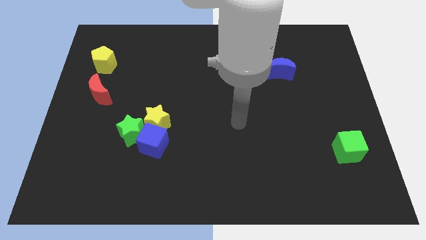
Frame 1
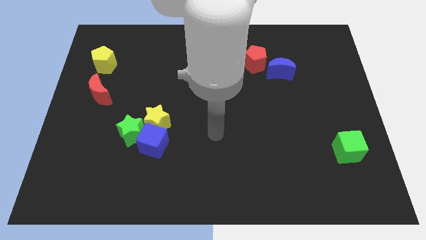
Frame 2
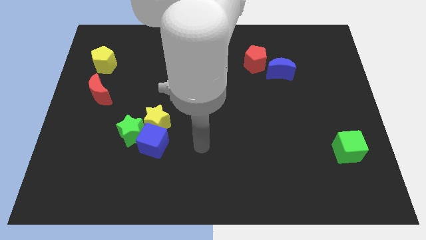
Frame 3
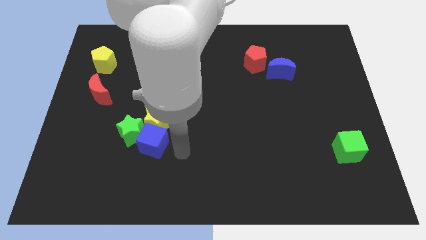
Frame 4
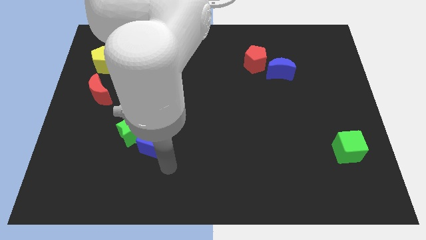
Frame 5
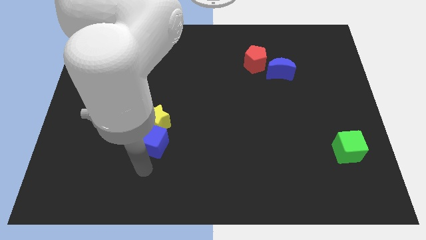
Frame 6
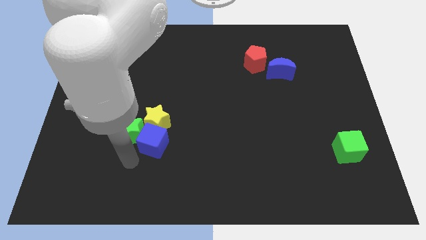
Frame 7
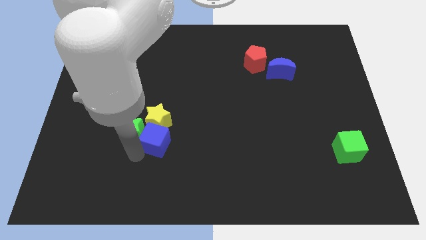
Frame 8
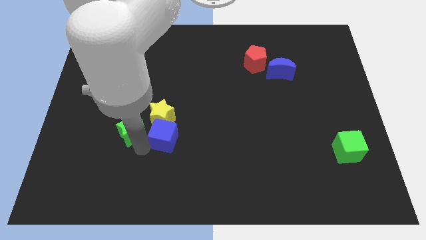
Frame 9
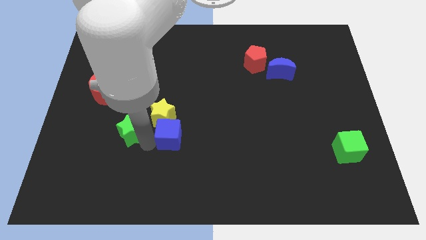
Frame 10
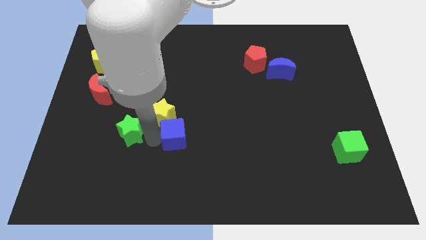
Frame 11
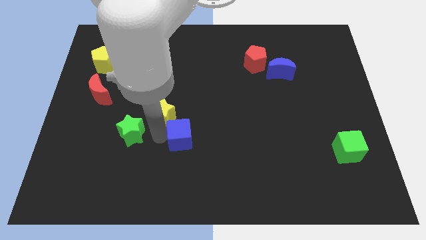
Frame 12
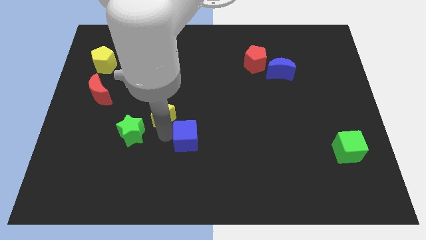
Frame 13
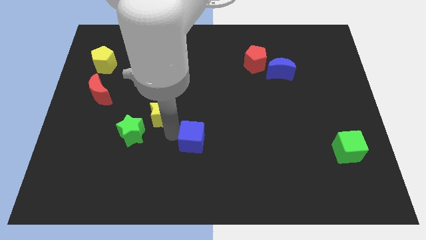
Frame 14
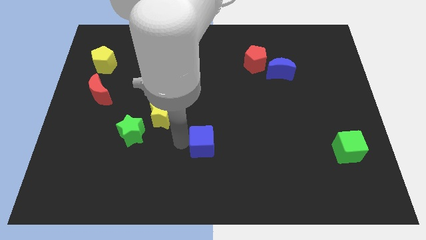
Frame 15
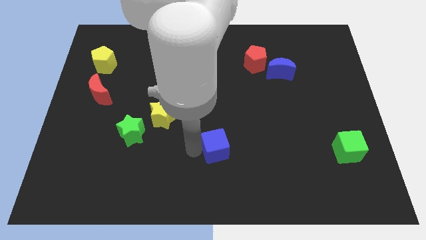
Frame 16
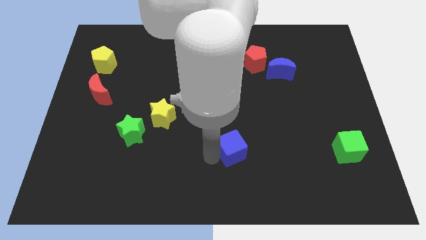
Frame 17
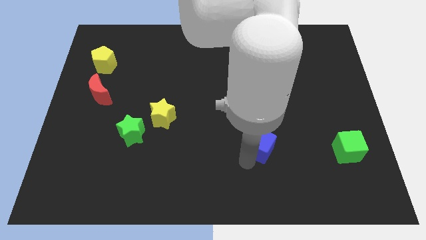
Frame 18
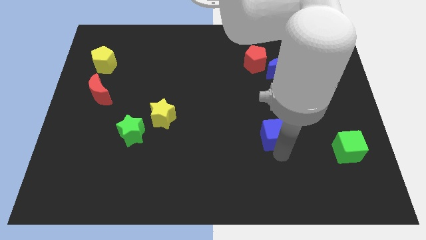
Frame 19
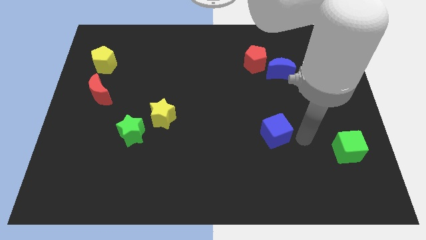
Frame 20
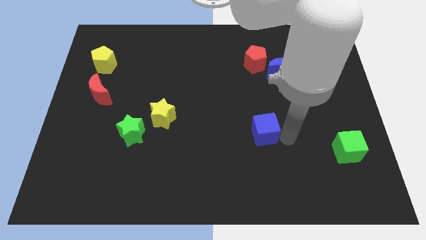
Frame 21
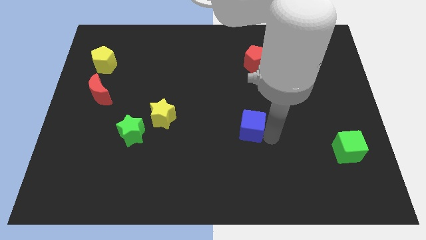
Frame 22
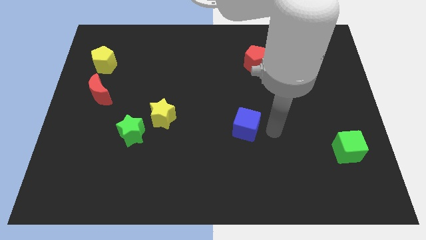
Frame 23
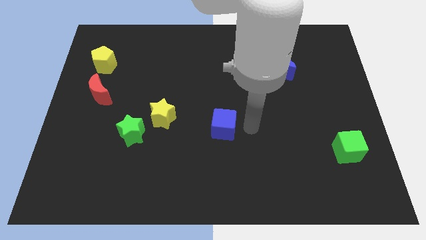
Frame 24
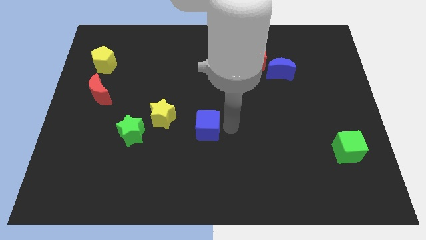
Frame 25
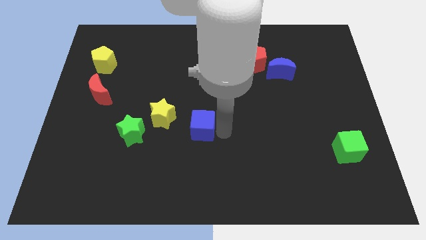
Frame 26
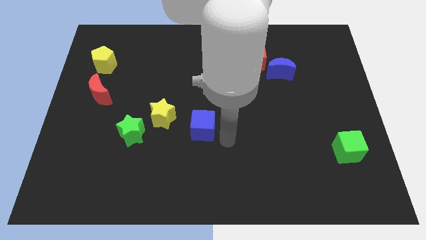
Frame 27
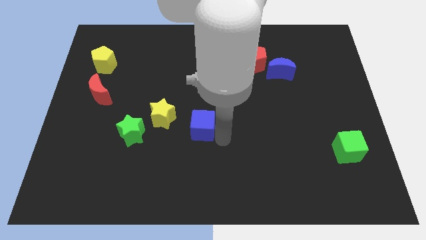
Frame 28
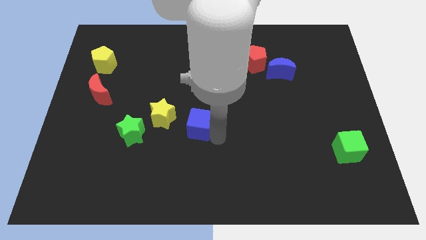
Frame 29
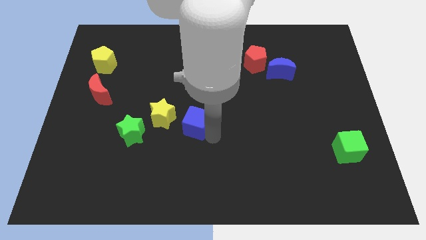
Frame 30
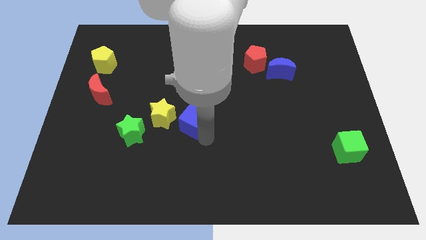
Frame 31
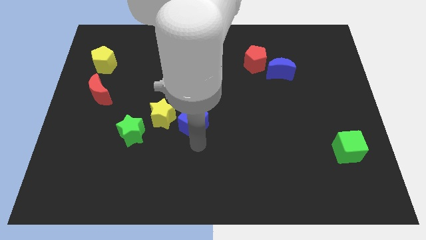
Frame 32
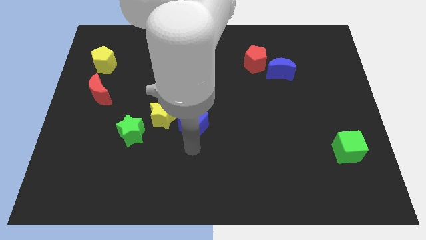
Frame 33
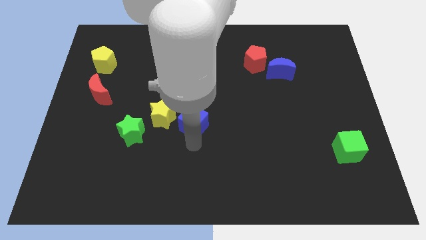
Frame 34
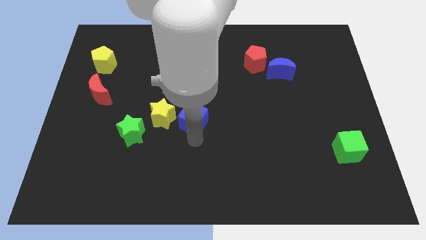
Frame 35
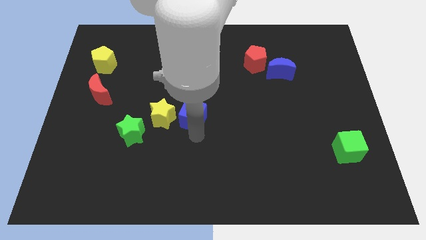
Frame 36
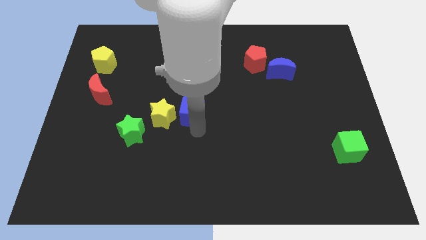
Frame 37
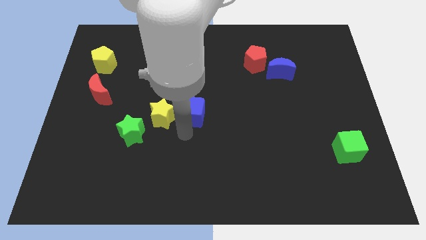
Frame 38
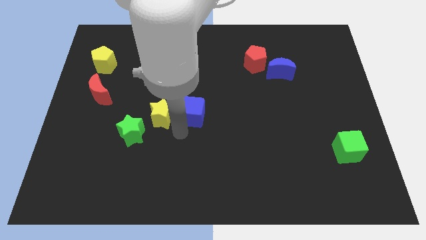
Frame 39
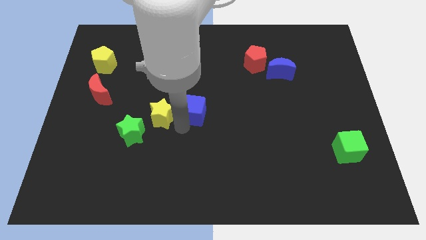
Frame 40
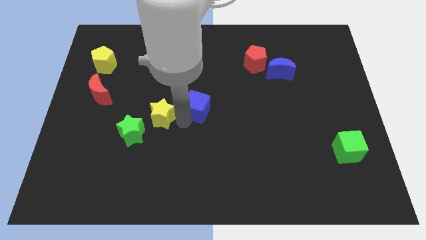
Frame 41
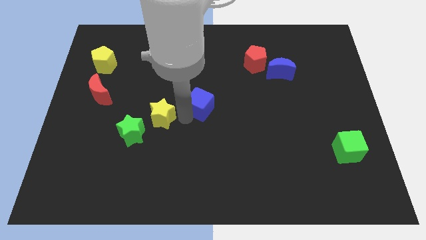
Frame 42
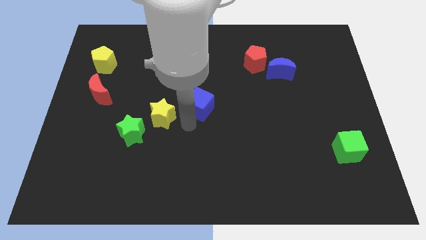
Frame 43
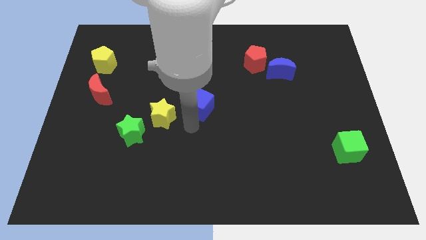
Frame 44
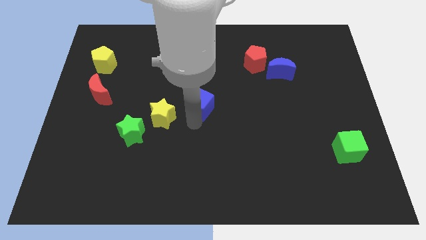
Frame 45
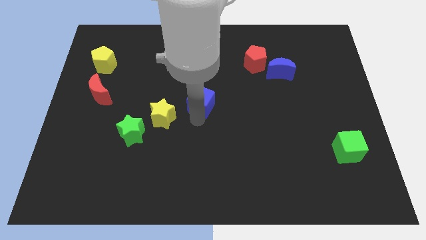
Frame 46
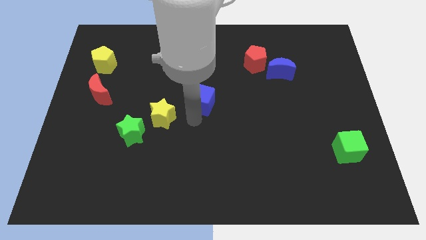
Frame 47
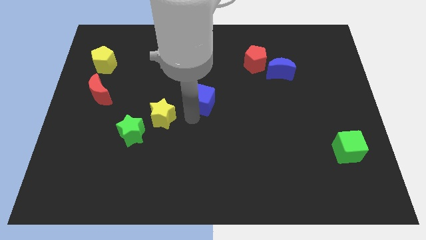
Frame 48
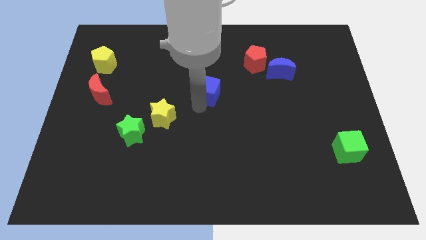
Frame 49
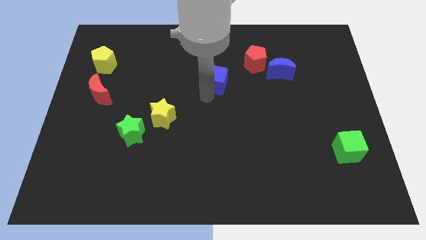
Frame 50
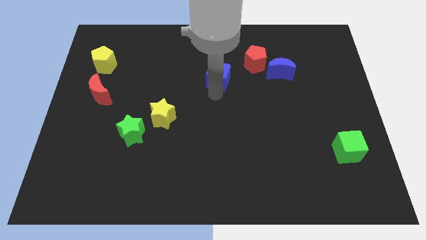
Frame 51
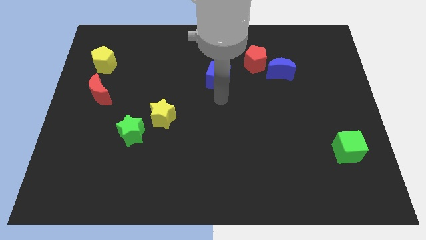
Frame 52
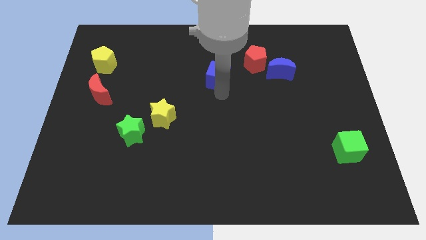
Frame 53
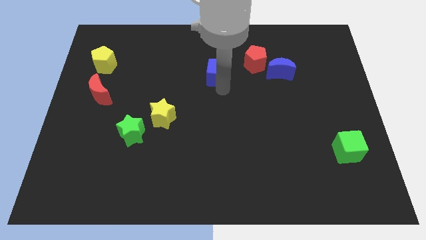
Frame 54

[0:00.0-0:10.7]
push the blue cube just left of the red pentagon

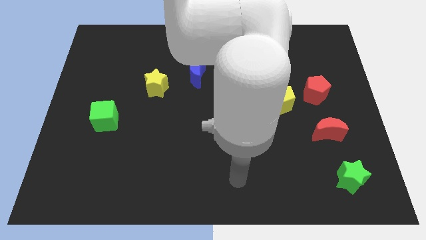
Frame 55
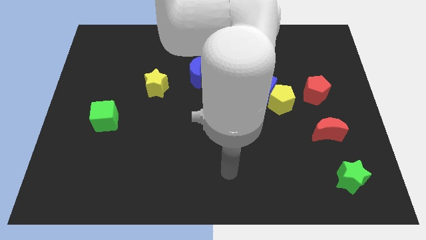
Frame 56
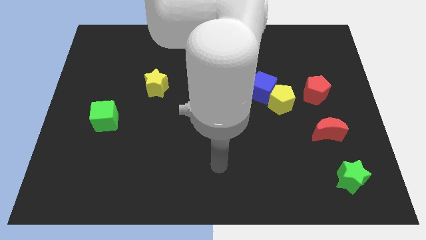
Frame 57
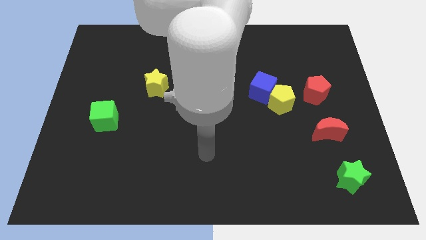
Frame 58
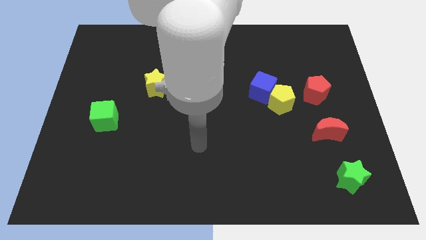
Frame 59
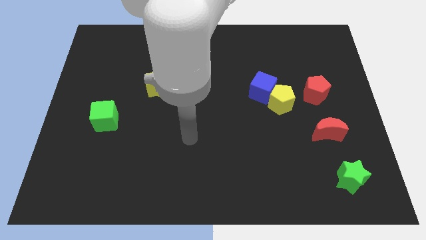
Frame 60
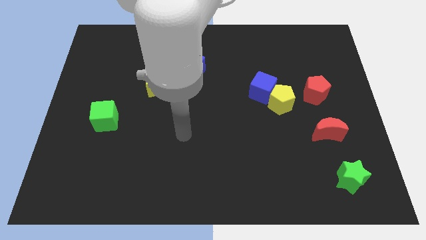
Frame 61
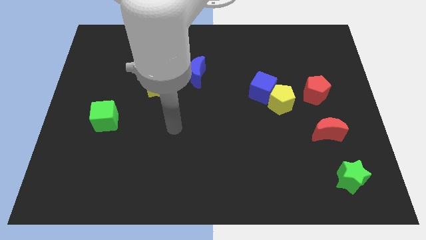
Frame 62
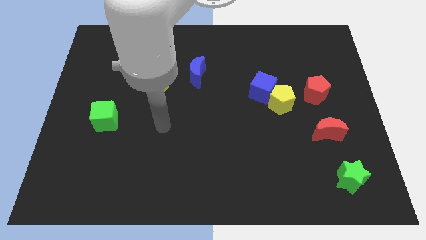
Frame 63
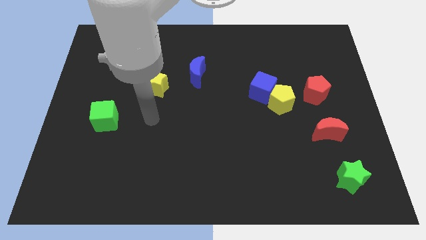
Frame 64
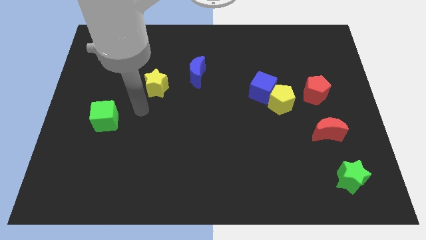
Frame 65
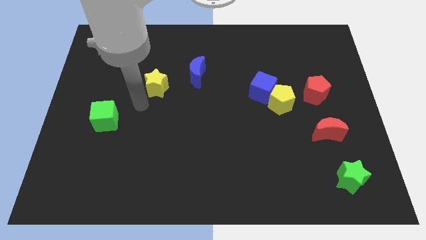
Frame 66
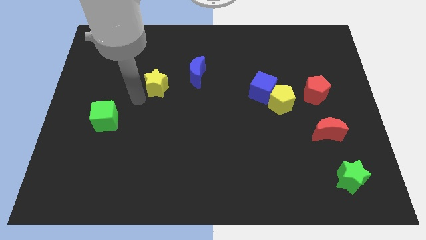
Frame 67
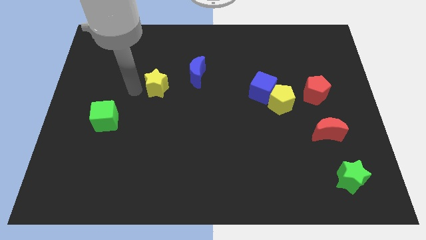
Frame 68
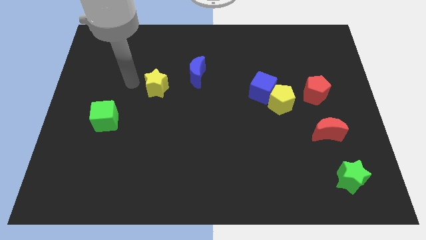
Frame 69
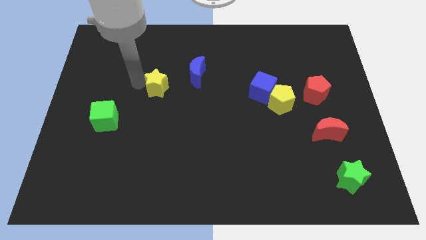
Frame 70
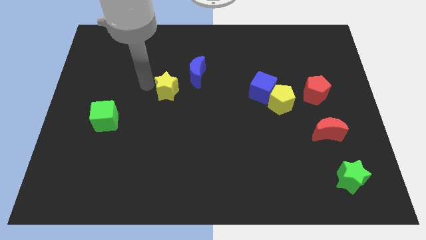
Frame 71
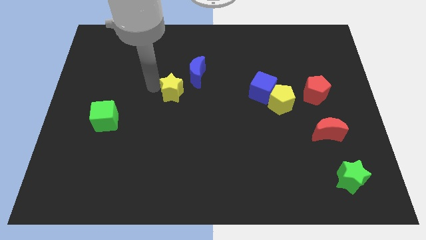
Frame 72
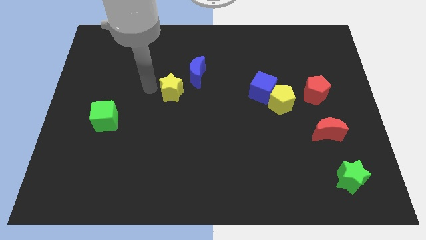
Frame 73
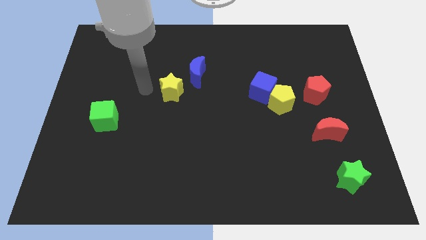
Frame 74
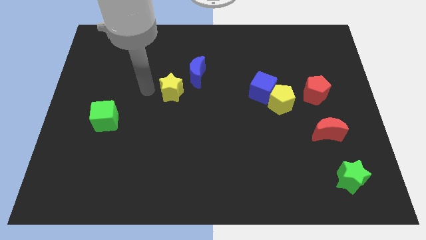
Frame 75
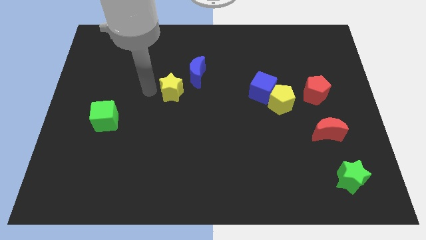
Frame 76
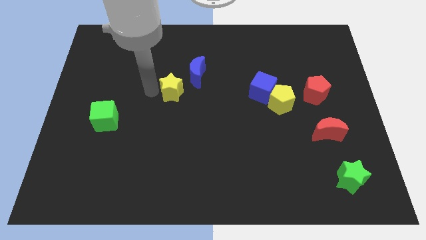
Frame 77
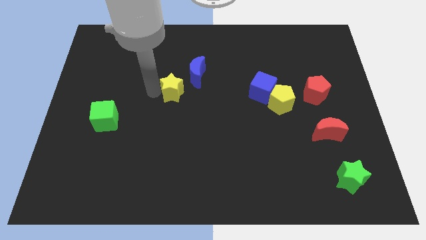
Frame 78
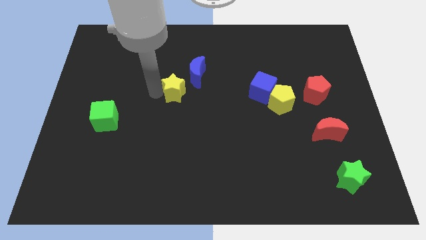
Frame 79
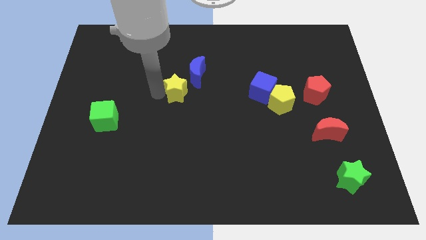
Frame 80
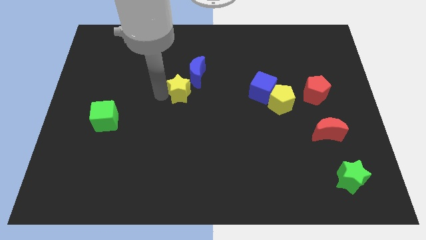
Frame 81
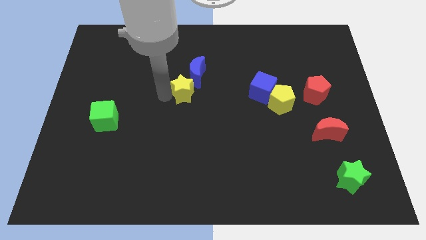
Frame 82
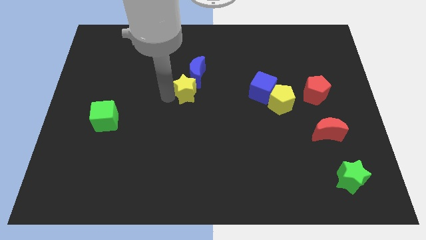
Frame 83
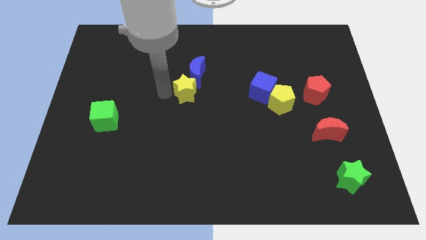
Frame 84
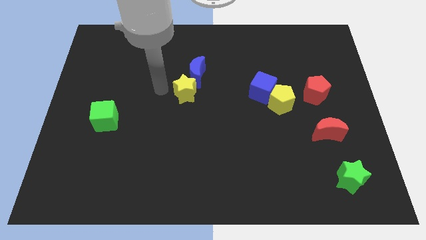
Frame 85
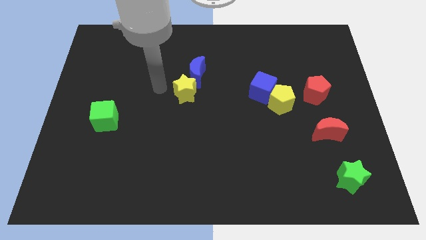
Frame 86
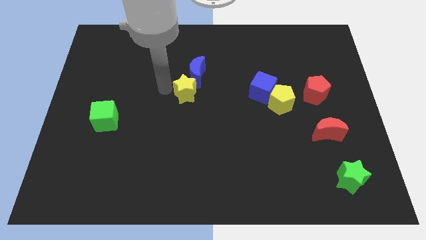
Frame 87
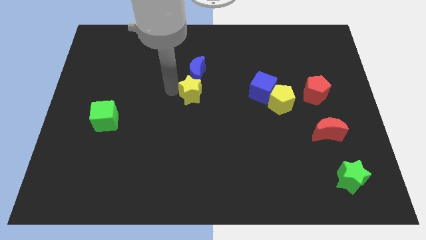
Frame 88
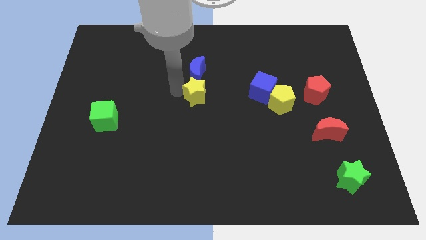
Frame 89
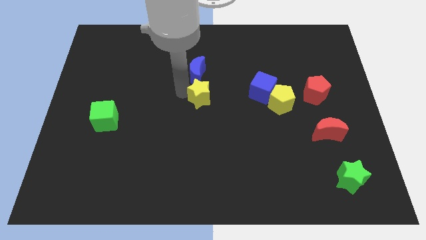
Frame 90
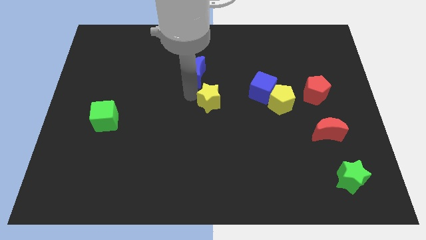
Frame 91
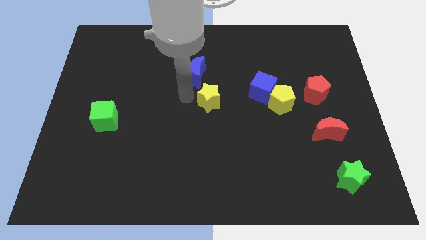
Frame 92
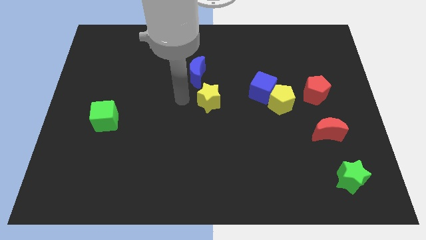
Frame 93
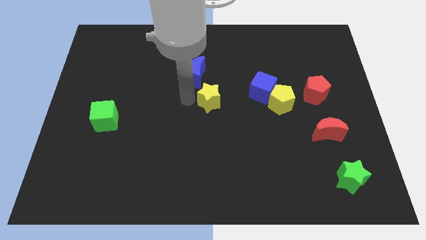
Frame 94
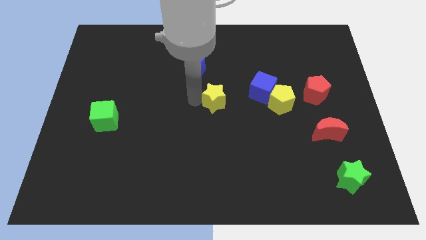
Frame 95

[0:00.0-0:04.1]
put the yellow star to the left of the yellow pentagon
